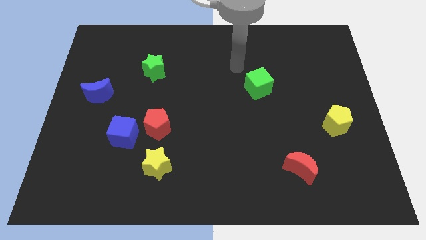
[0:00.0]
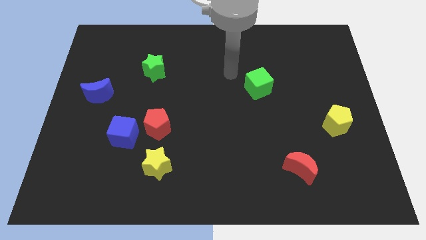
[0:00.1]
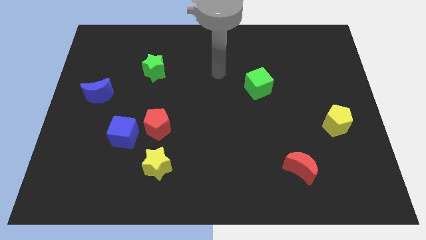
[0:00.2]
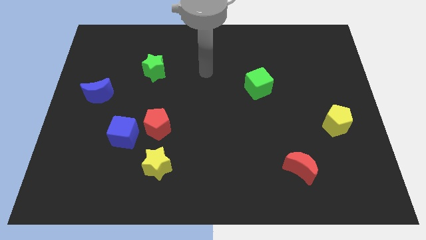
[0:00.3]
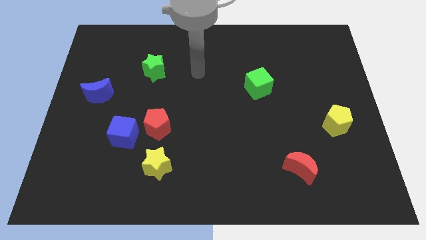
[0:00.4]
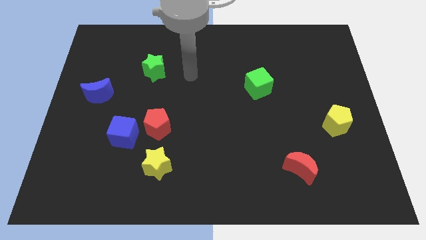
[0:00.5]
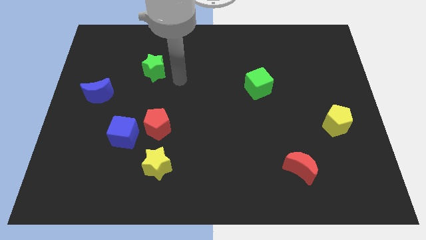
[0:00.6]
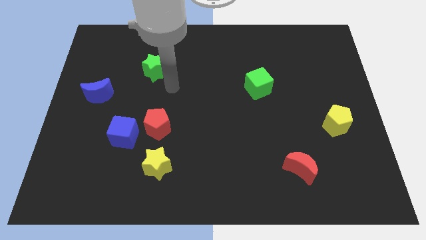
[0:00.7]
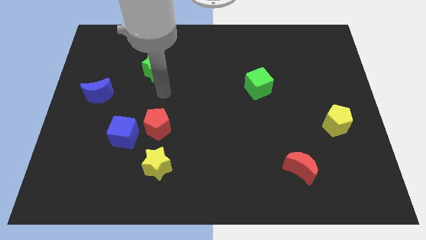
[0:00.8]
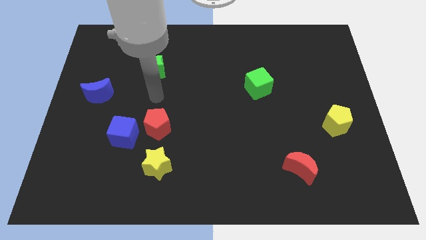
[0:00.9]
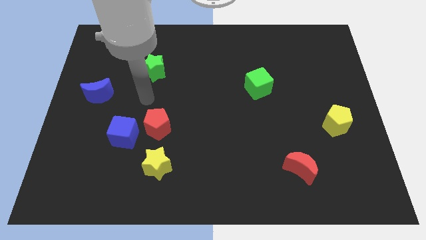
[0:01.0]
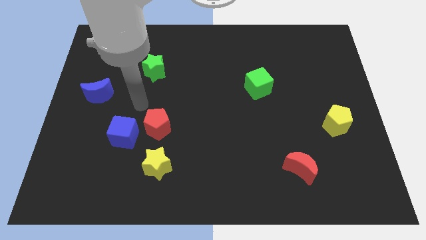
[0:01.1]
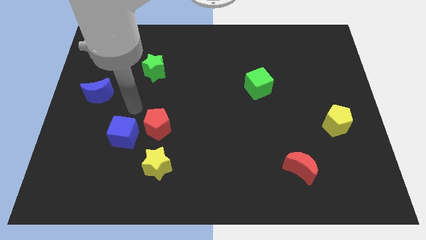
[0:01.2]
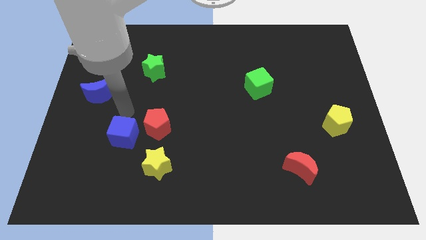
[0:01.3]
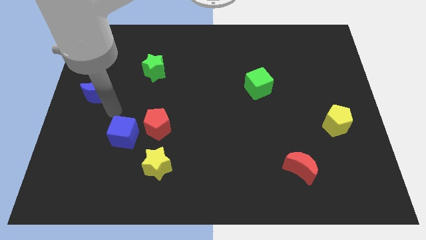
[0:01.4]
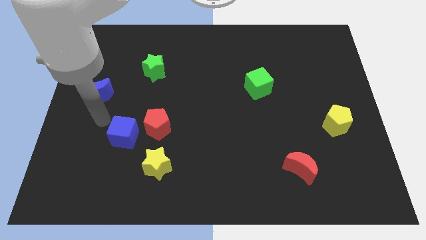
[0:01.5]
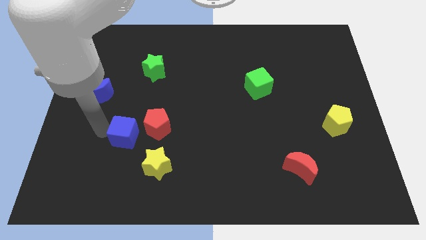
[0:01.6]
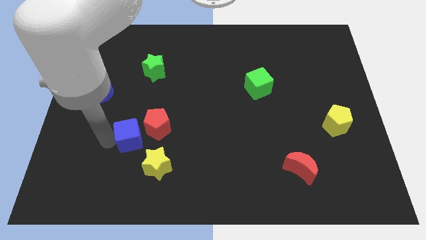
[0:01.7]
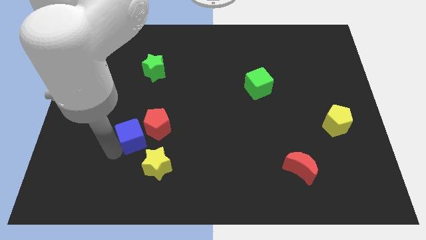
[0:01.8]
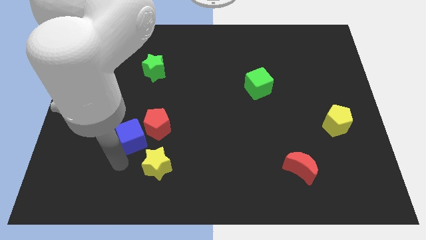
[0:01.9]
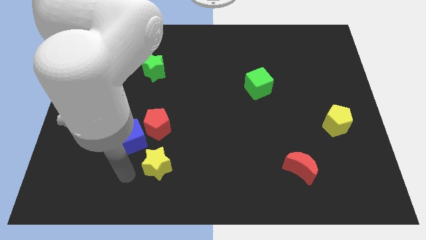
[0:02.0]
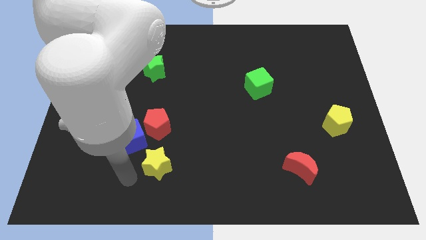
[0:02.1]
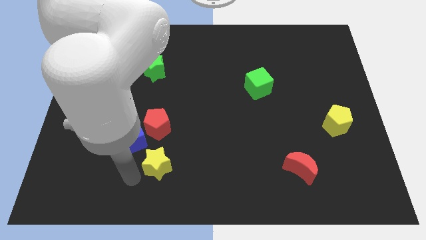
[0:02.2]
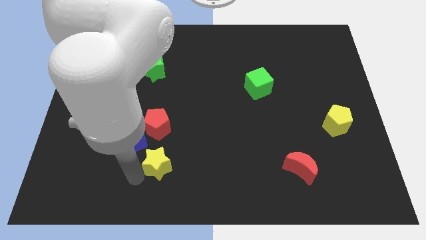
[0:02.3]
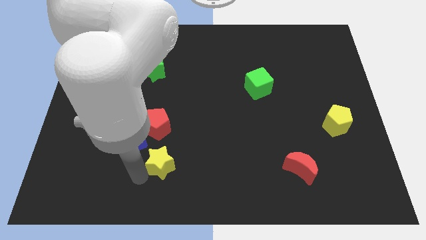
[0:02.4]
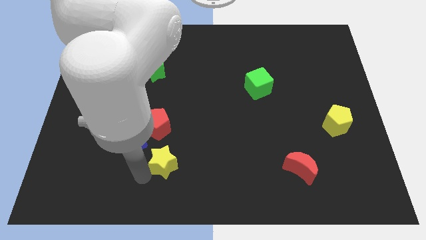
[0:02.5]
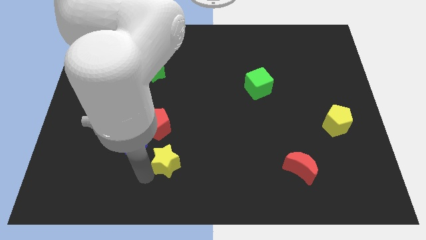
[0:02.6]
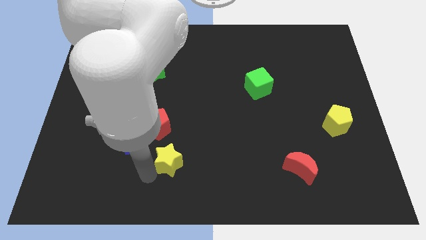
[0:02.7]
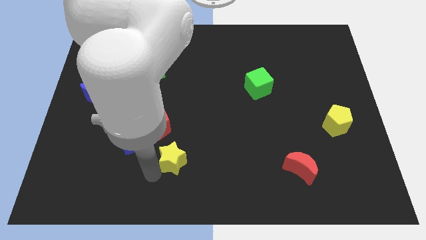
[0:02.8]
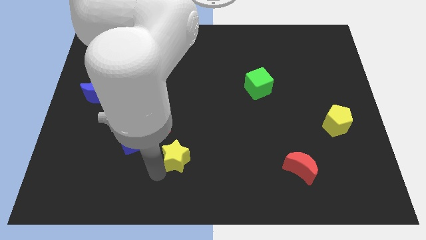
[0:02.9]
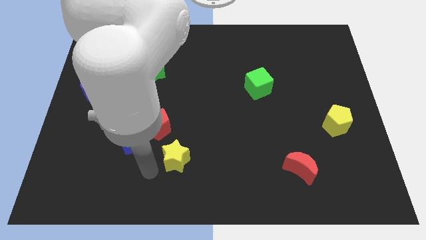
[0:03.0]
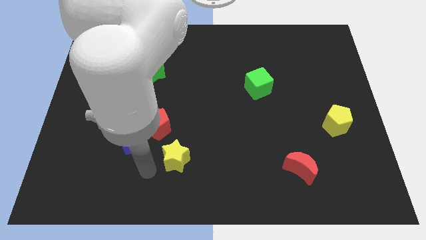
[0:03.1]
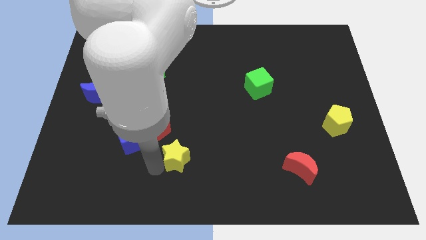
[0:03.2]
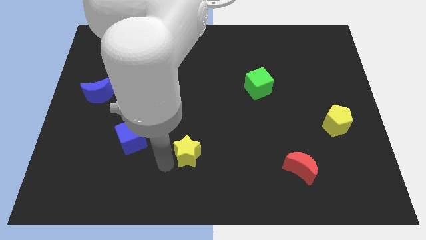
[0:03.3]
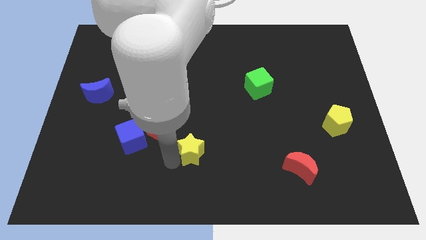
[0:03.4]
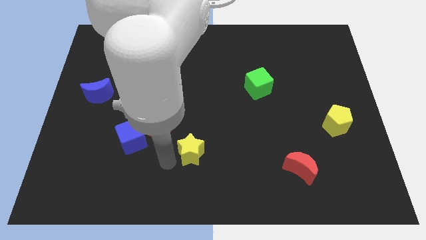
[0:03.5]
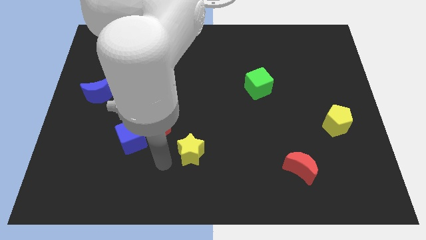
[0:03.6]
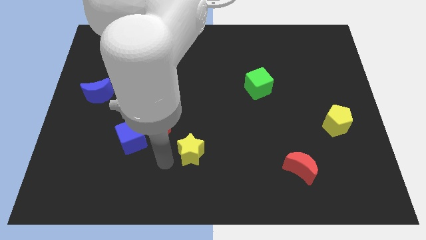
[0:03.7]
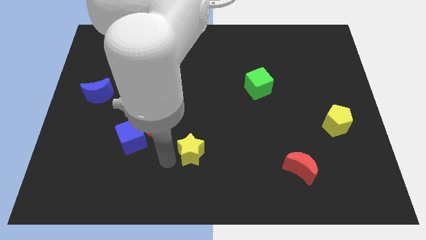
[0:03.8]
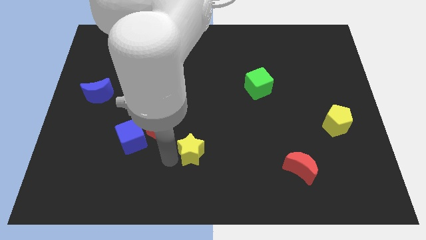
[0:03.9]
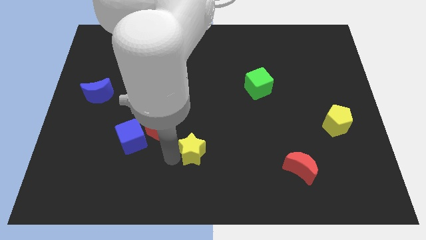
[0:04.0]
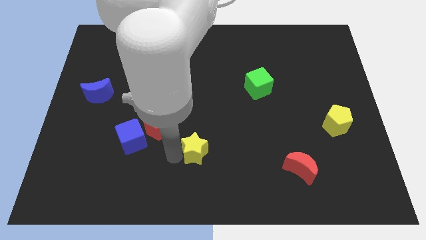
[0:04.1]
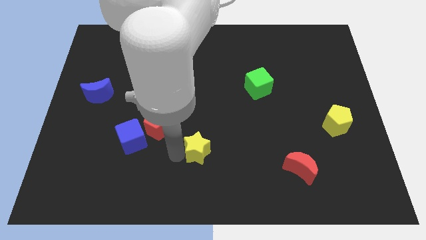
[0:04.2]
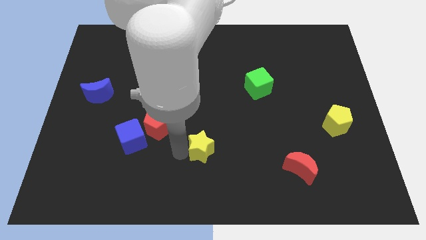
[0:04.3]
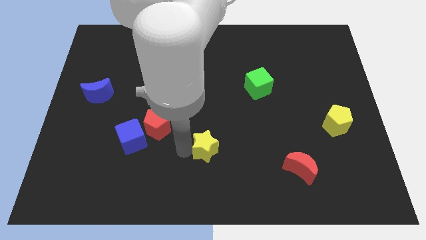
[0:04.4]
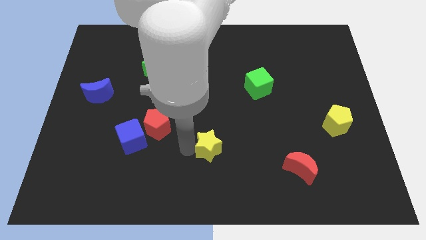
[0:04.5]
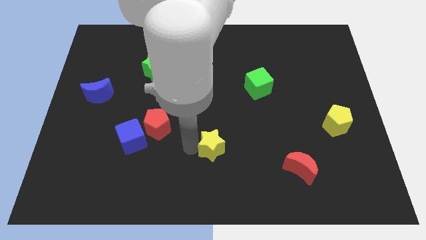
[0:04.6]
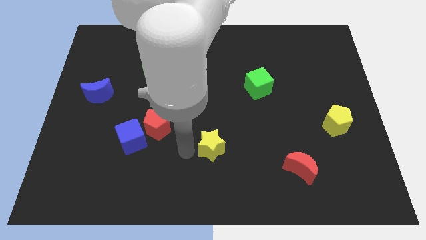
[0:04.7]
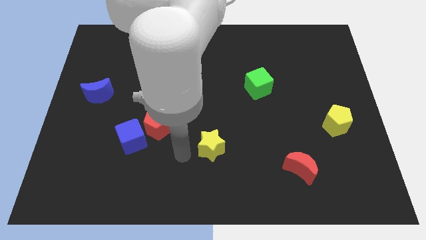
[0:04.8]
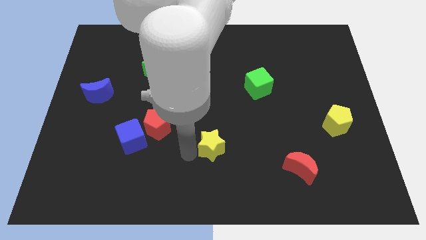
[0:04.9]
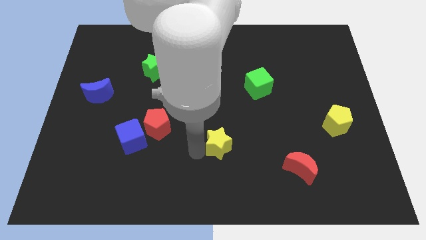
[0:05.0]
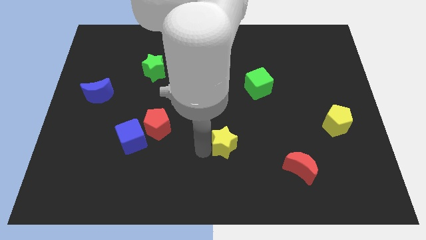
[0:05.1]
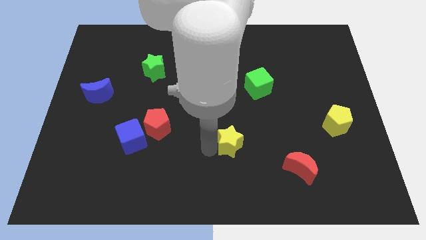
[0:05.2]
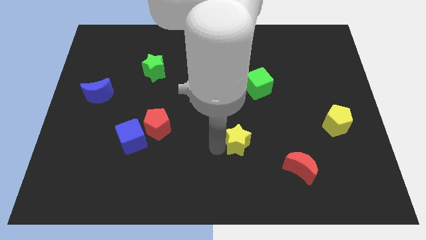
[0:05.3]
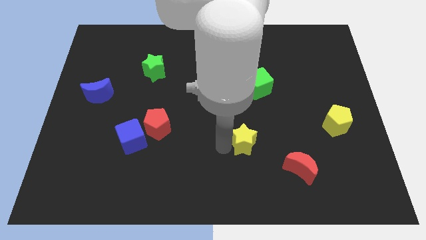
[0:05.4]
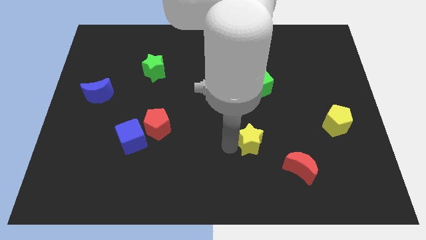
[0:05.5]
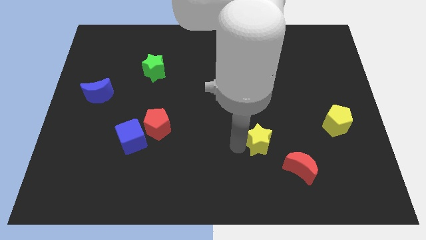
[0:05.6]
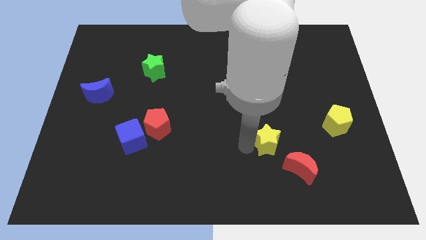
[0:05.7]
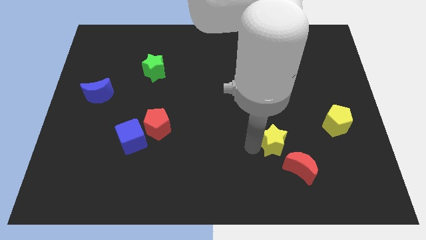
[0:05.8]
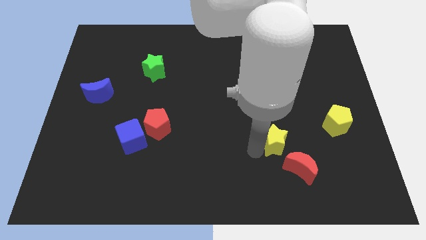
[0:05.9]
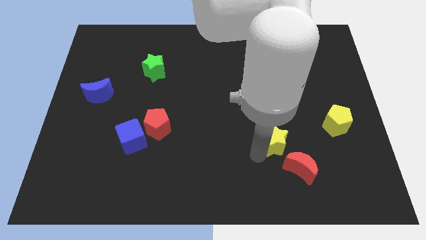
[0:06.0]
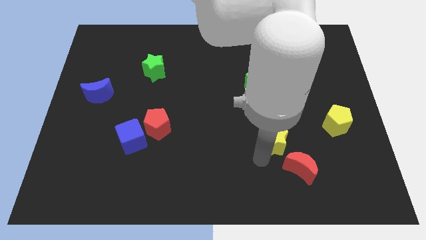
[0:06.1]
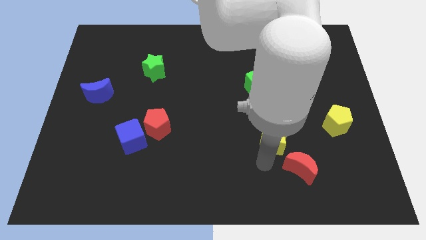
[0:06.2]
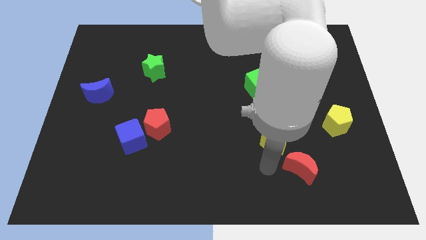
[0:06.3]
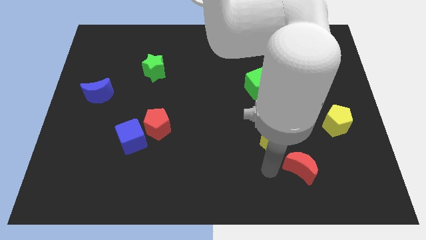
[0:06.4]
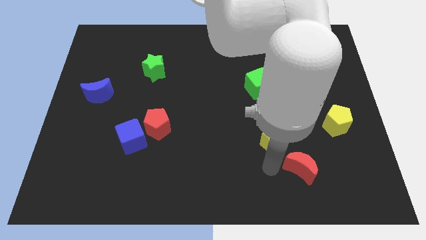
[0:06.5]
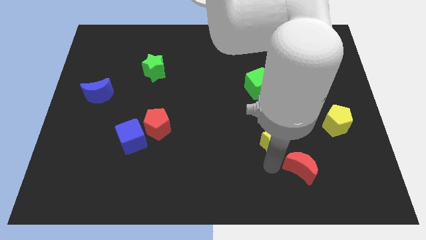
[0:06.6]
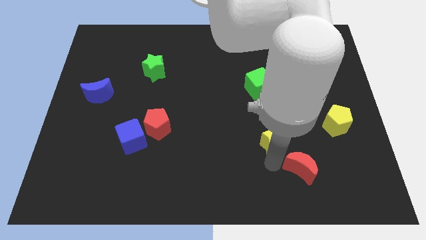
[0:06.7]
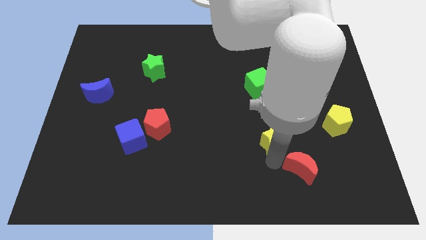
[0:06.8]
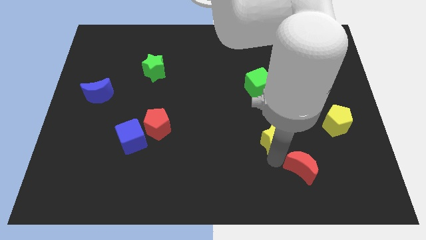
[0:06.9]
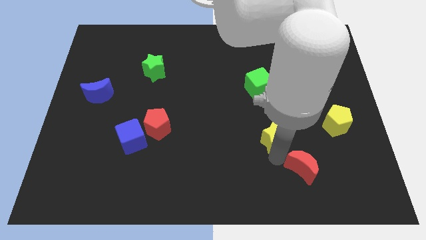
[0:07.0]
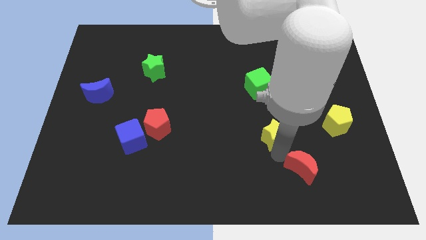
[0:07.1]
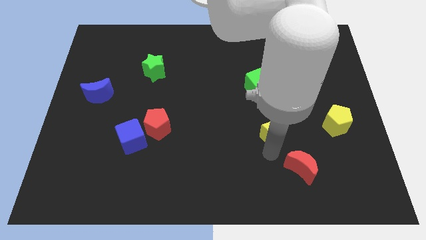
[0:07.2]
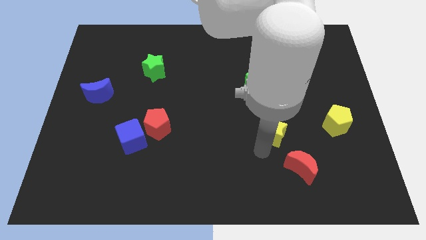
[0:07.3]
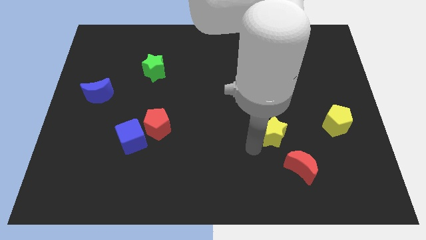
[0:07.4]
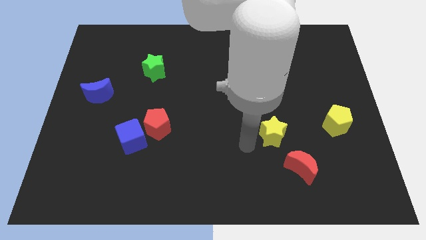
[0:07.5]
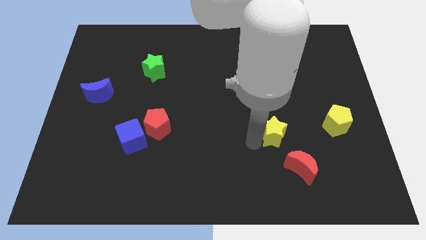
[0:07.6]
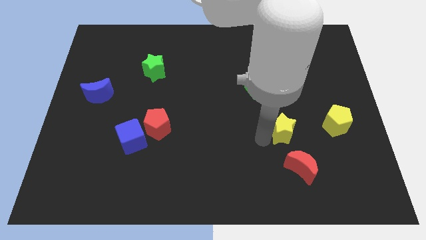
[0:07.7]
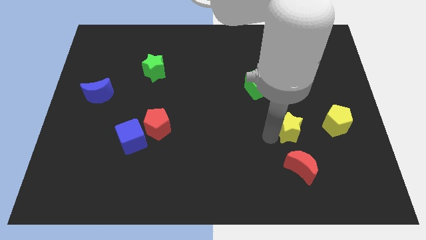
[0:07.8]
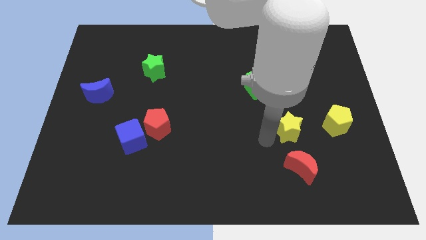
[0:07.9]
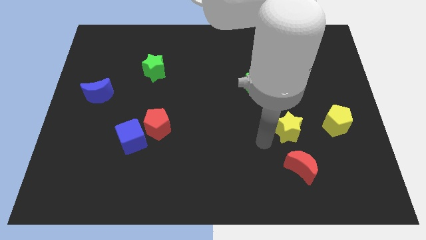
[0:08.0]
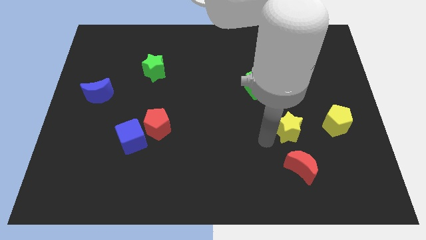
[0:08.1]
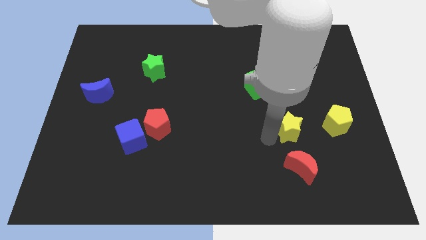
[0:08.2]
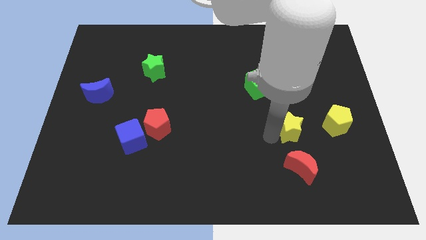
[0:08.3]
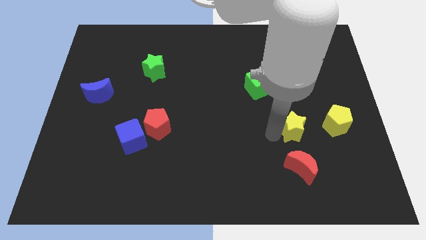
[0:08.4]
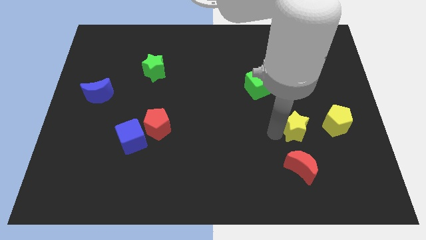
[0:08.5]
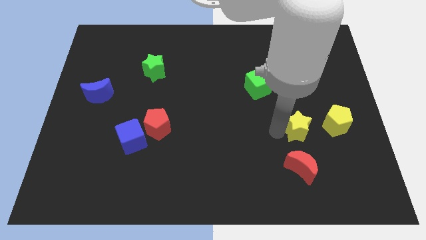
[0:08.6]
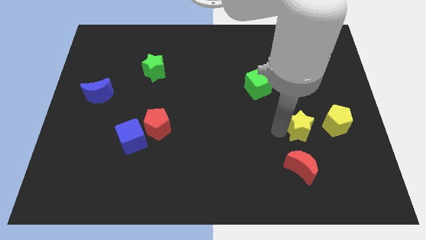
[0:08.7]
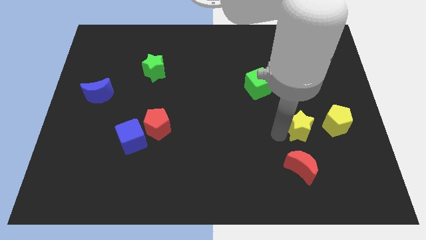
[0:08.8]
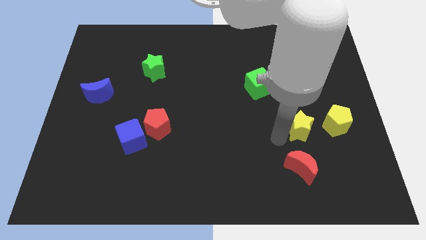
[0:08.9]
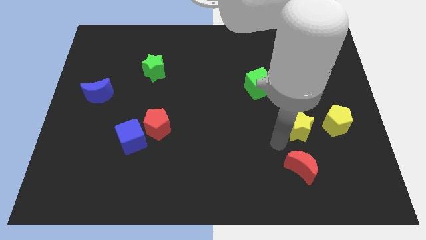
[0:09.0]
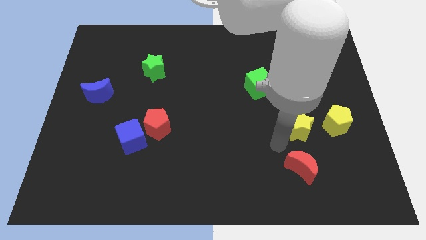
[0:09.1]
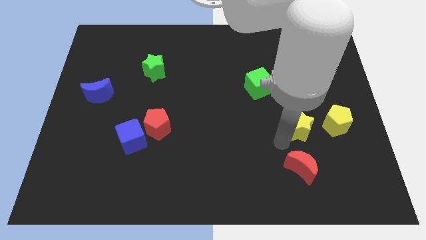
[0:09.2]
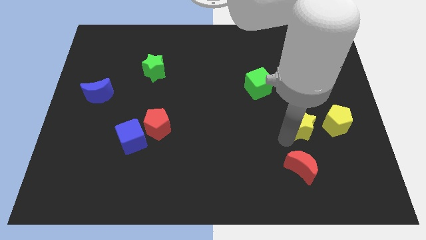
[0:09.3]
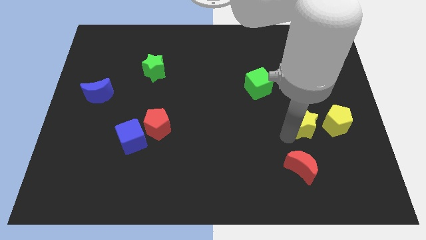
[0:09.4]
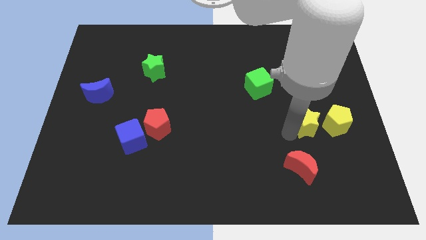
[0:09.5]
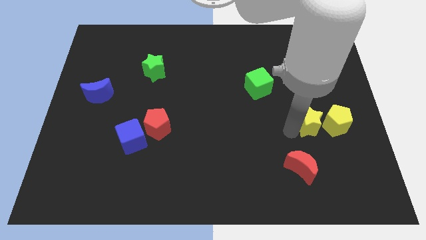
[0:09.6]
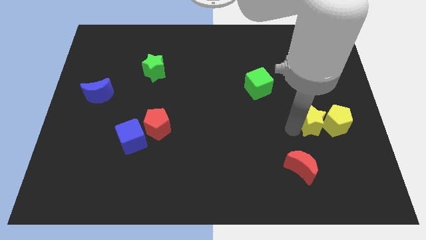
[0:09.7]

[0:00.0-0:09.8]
push the yellow star to the yellow pentagon
